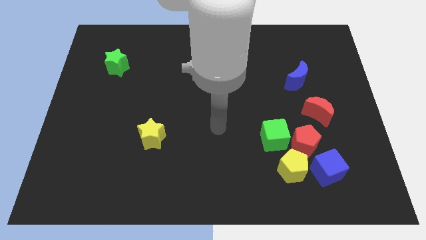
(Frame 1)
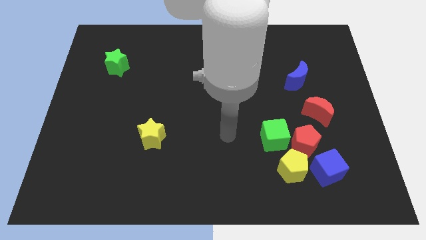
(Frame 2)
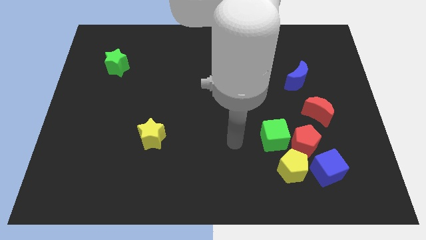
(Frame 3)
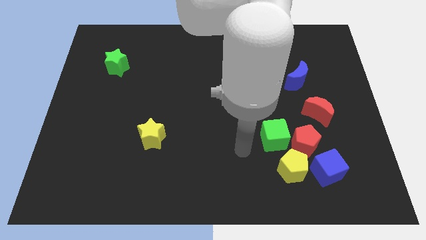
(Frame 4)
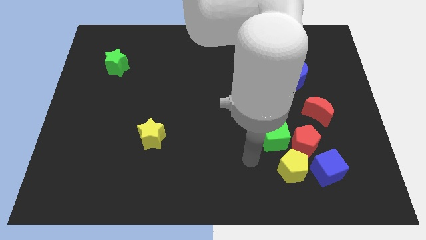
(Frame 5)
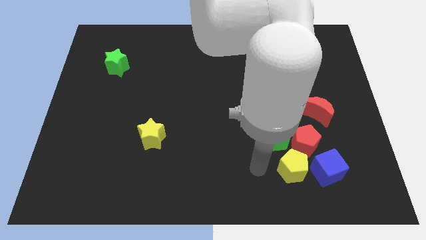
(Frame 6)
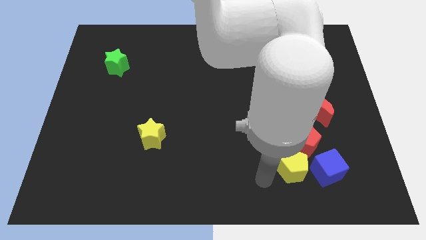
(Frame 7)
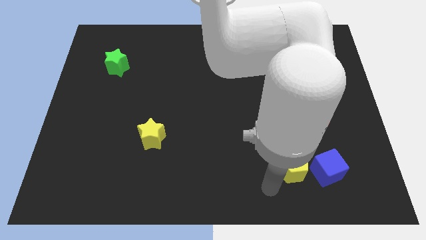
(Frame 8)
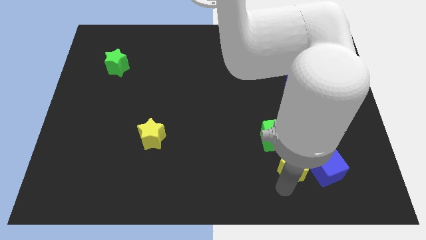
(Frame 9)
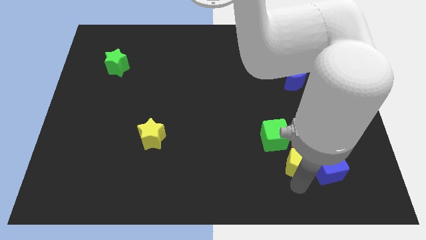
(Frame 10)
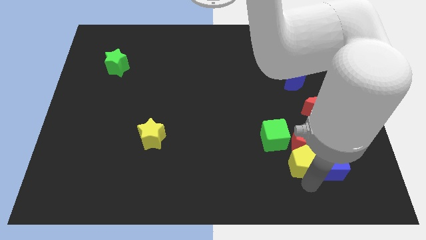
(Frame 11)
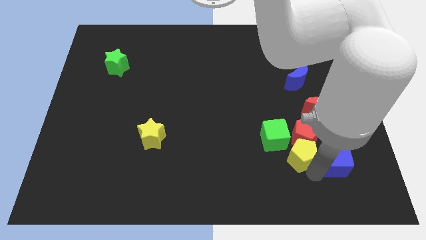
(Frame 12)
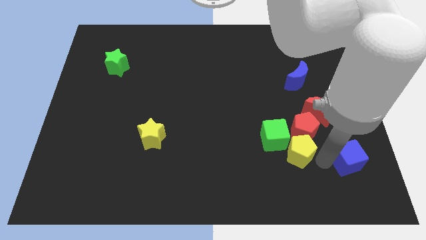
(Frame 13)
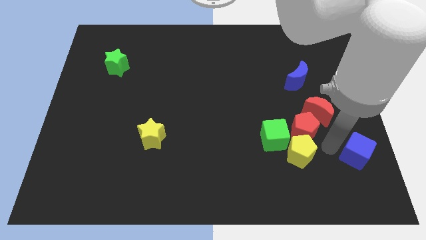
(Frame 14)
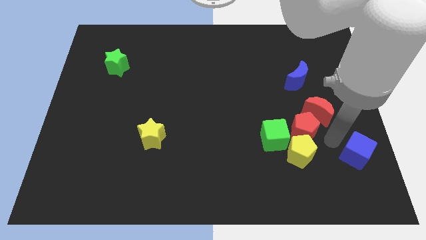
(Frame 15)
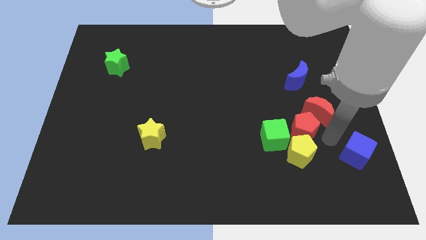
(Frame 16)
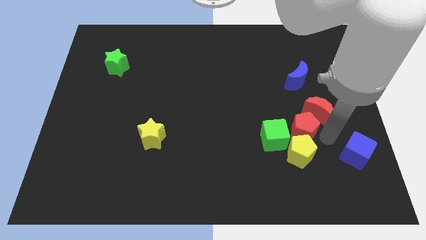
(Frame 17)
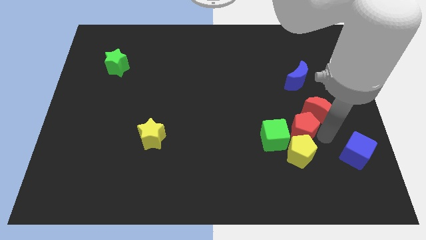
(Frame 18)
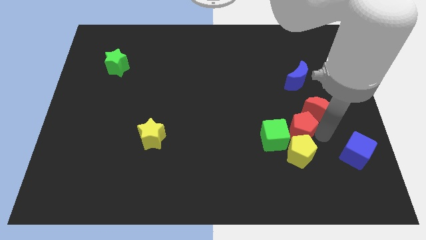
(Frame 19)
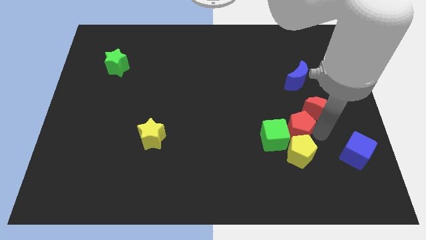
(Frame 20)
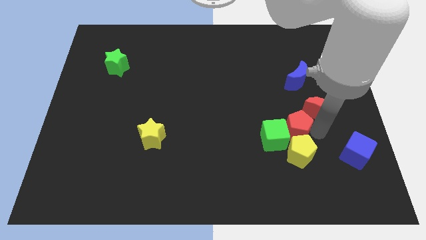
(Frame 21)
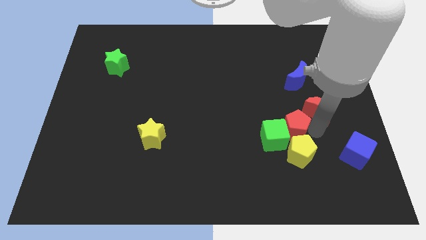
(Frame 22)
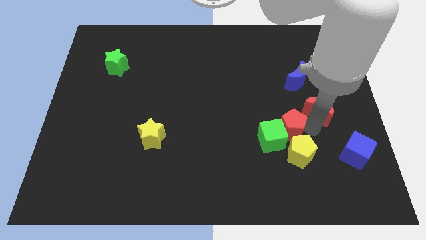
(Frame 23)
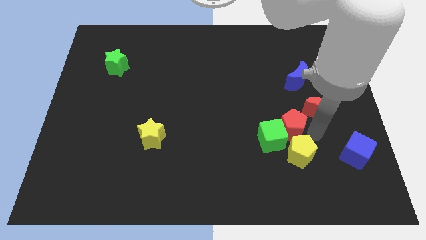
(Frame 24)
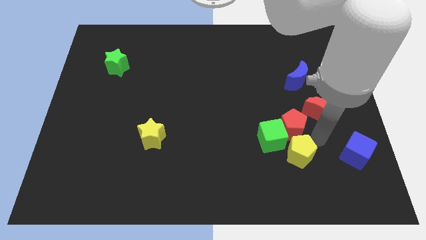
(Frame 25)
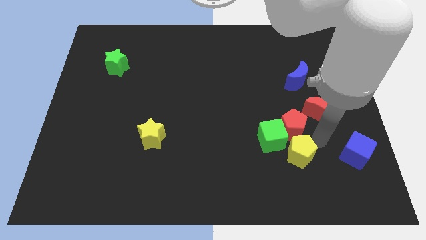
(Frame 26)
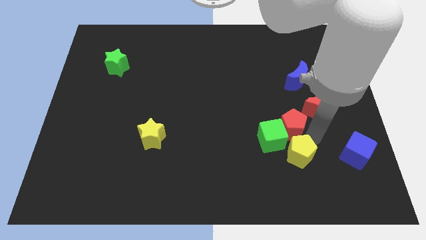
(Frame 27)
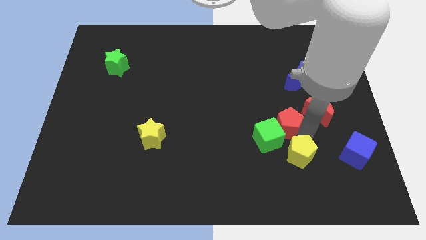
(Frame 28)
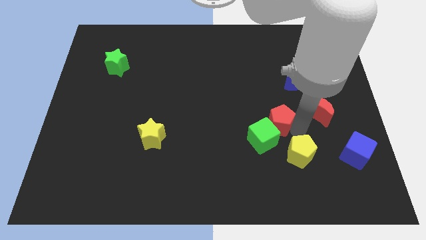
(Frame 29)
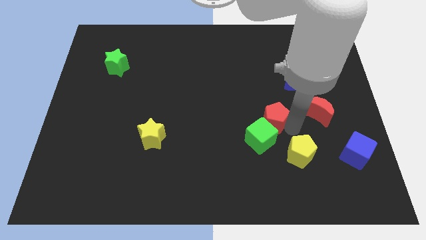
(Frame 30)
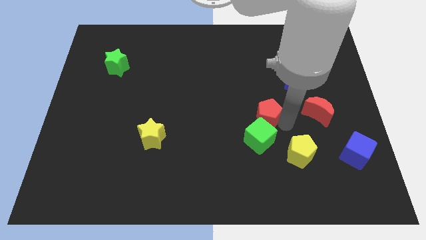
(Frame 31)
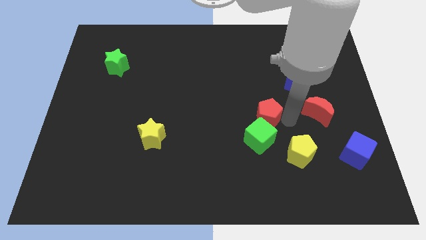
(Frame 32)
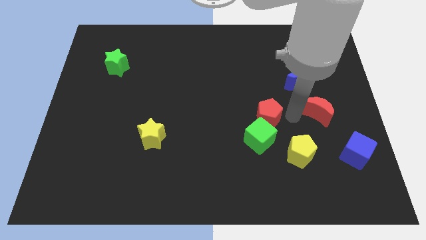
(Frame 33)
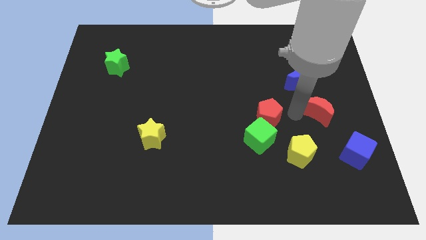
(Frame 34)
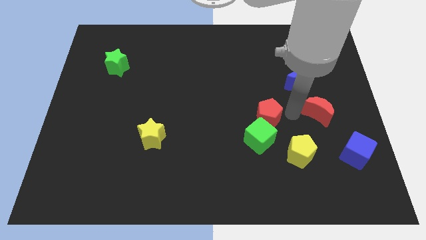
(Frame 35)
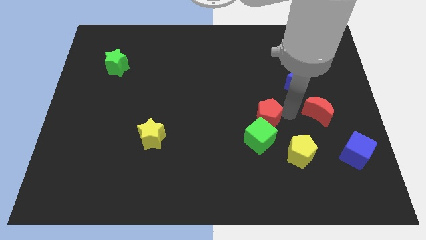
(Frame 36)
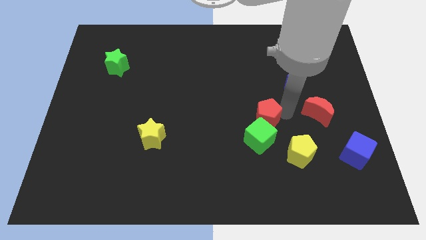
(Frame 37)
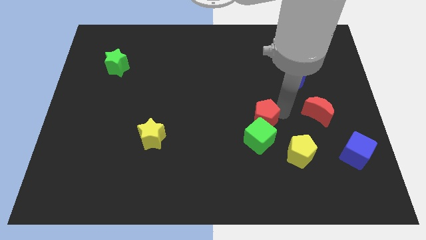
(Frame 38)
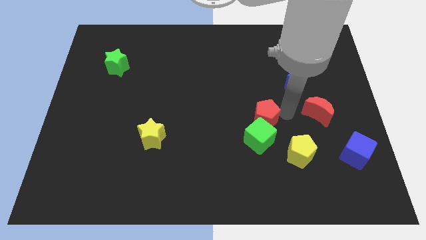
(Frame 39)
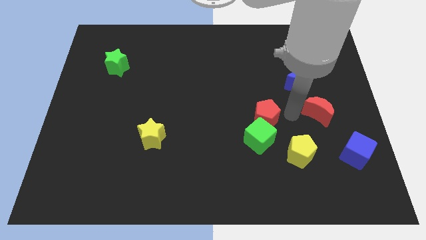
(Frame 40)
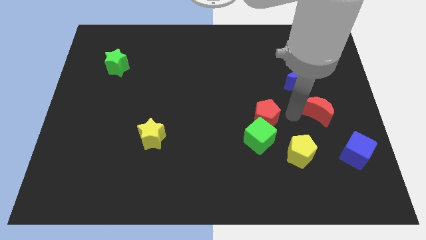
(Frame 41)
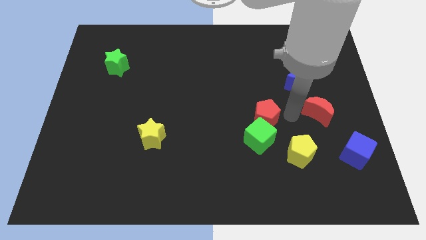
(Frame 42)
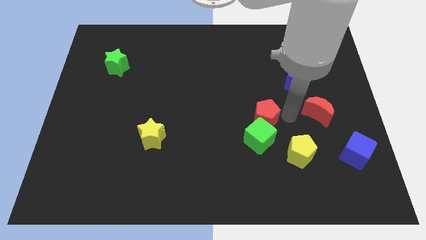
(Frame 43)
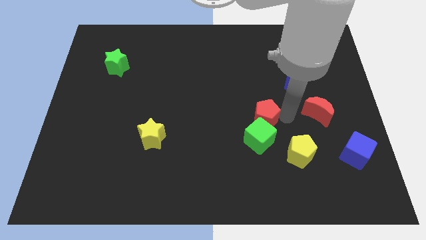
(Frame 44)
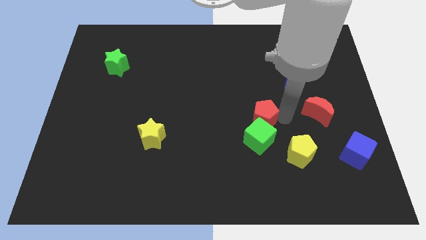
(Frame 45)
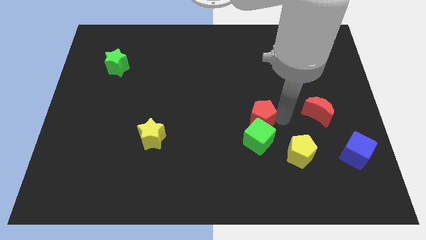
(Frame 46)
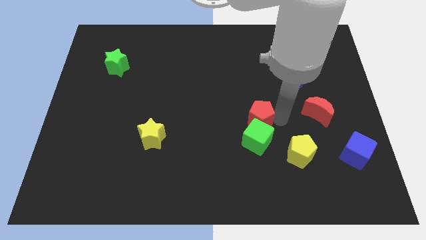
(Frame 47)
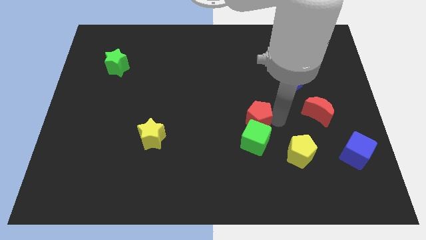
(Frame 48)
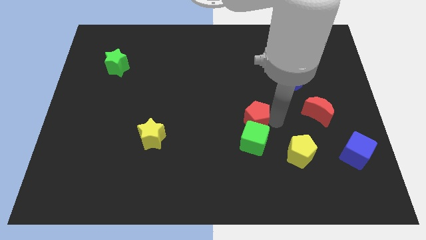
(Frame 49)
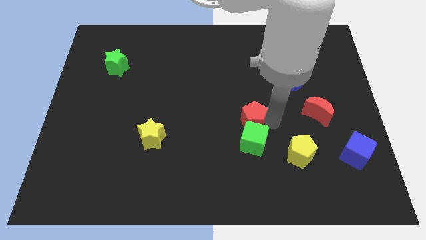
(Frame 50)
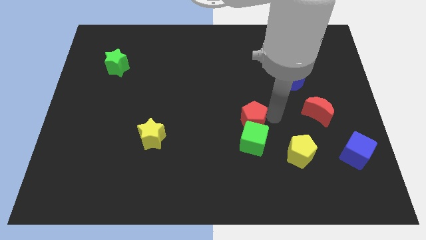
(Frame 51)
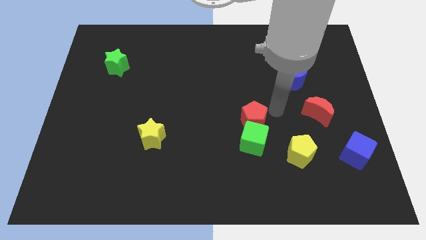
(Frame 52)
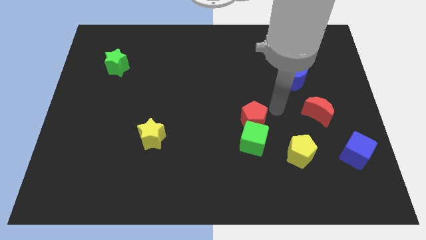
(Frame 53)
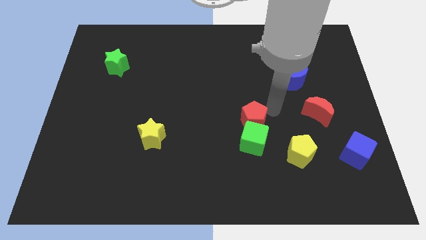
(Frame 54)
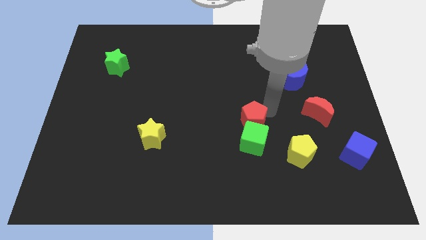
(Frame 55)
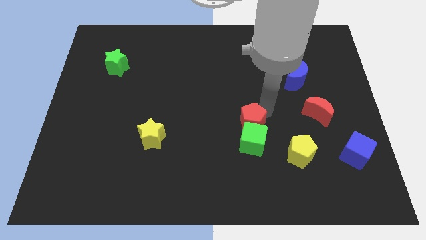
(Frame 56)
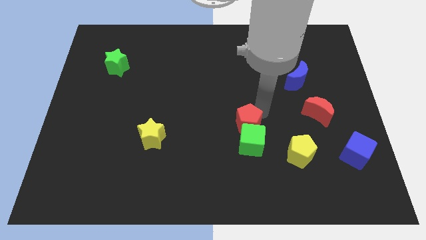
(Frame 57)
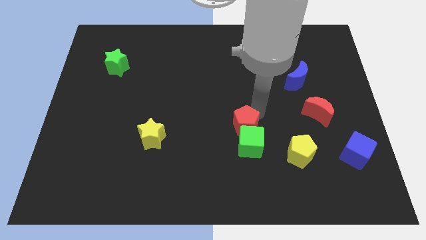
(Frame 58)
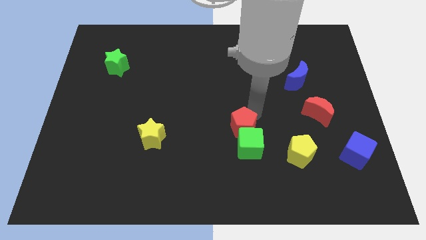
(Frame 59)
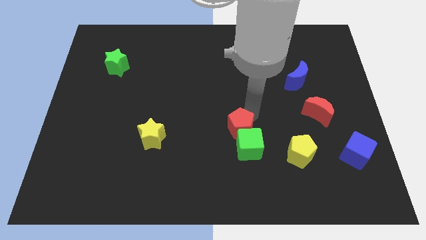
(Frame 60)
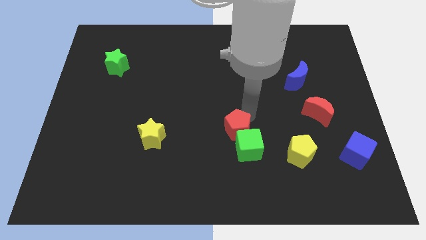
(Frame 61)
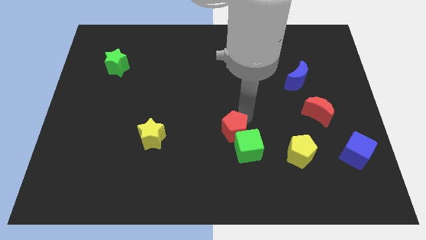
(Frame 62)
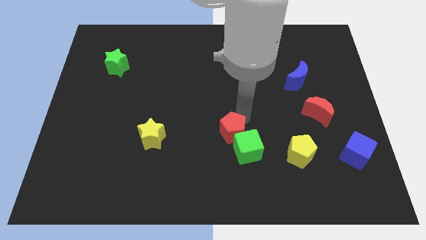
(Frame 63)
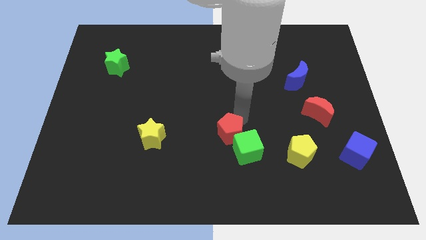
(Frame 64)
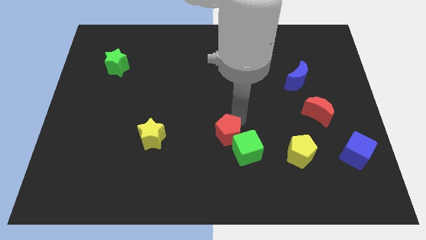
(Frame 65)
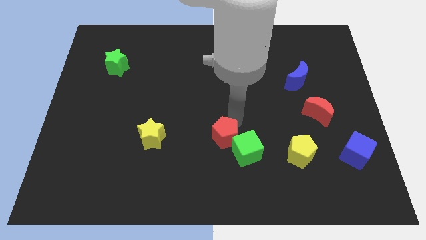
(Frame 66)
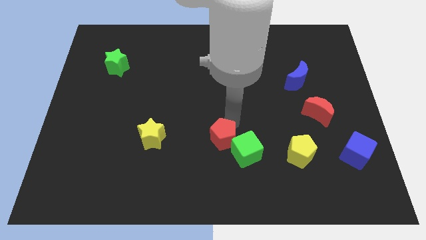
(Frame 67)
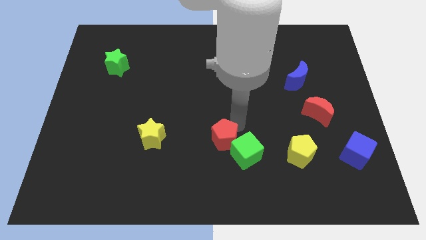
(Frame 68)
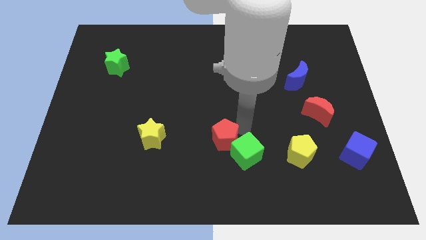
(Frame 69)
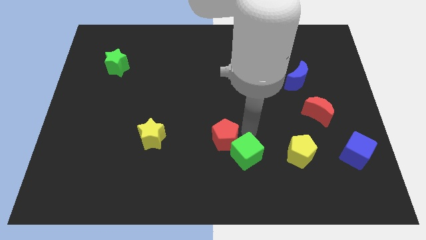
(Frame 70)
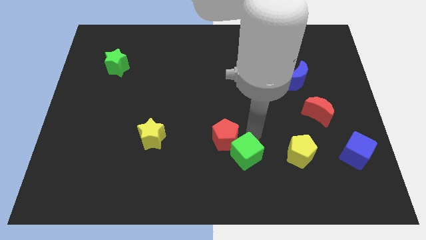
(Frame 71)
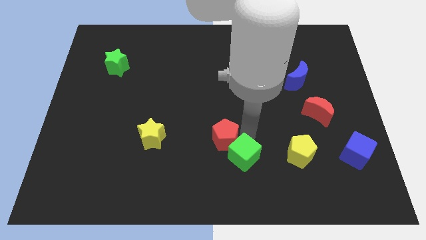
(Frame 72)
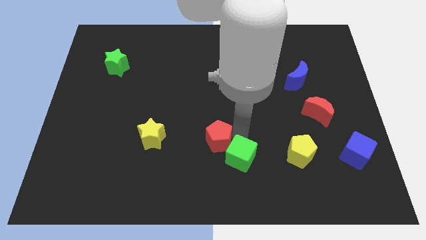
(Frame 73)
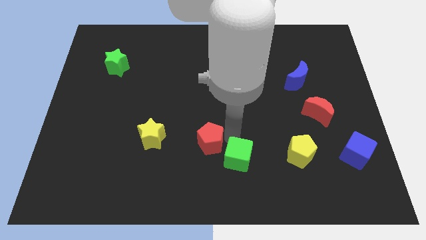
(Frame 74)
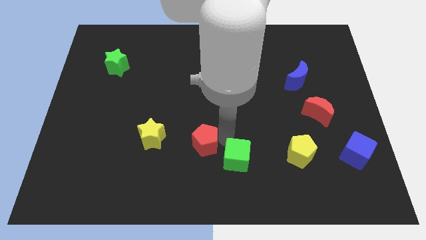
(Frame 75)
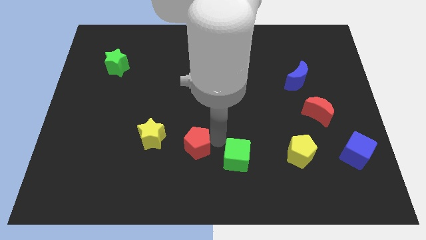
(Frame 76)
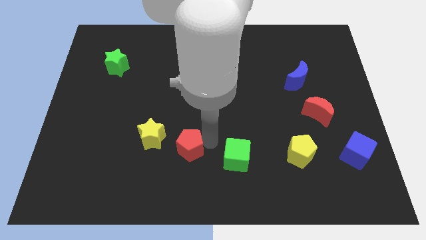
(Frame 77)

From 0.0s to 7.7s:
push the red pentagon to the bottom right of the yellow star

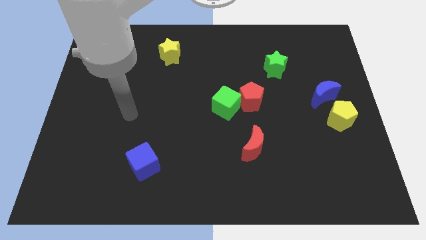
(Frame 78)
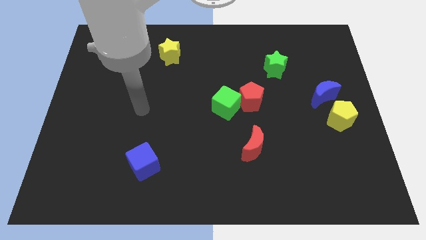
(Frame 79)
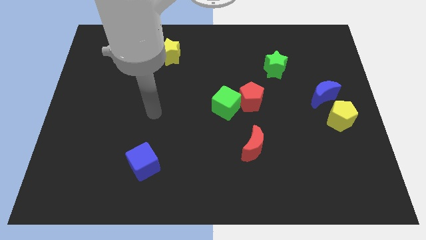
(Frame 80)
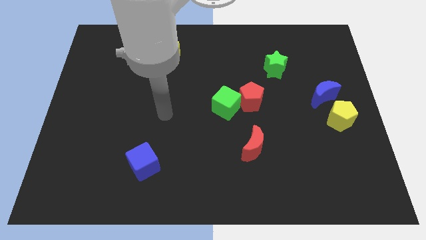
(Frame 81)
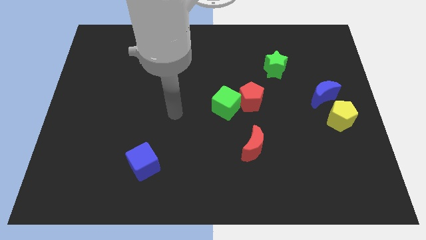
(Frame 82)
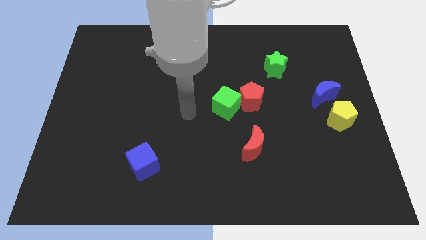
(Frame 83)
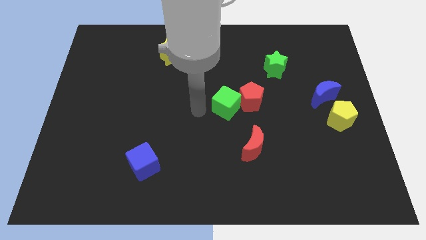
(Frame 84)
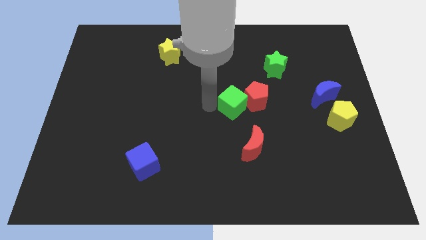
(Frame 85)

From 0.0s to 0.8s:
push the red pentagon just left of the blue moon
